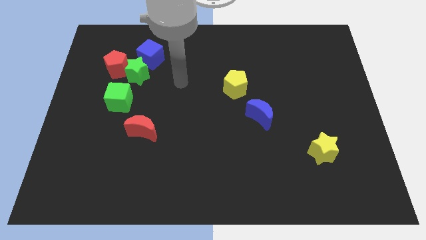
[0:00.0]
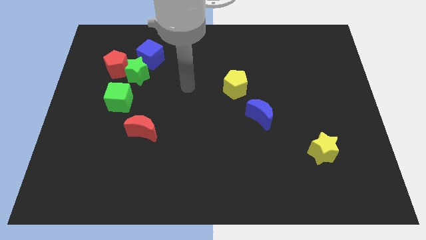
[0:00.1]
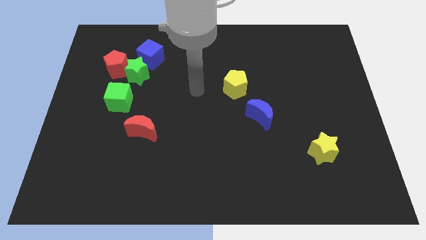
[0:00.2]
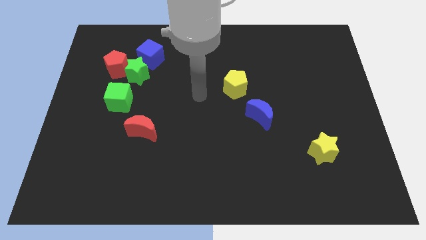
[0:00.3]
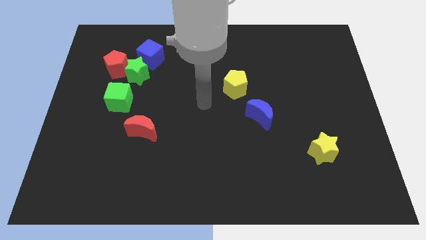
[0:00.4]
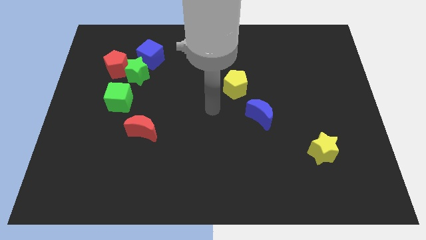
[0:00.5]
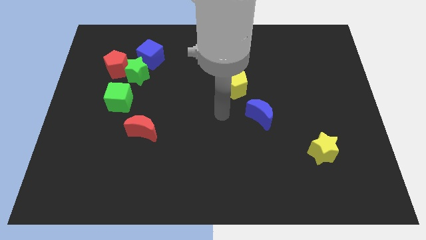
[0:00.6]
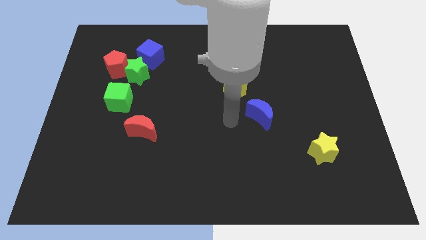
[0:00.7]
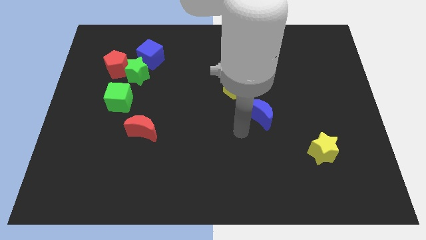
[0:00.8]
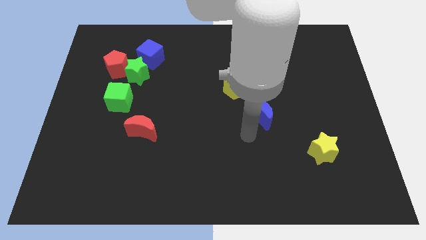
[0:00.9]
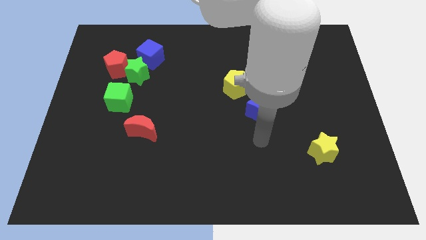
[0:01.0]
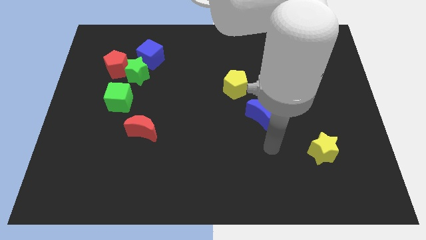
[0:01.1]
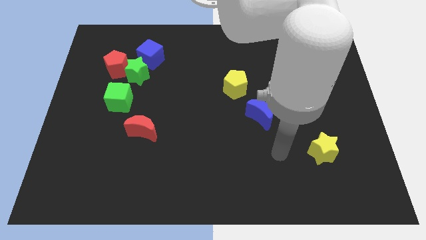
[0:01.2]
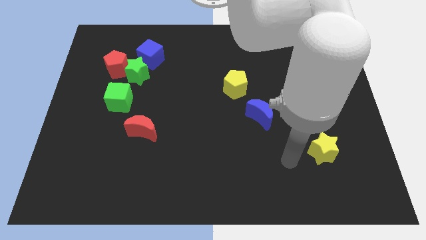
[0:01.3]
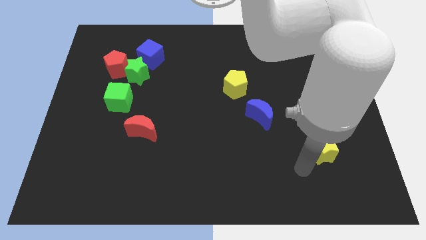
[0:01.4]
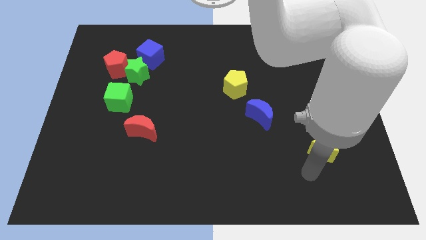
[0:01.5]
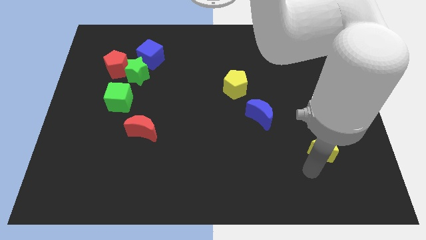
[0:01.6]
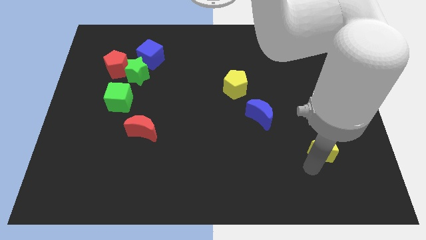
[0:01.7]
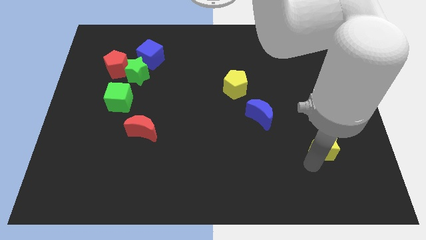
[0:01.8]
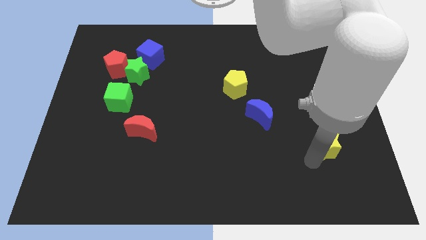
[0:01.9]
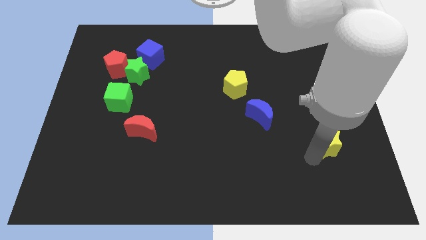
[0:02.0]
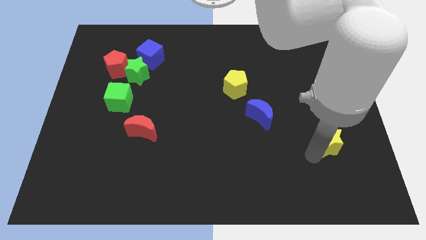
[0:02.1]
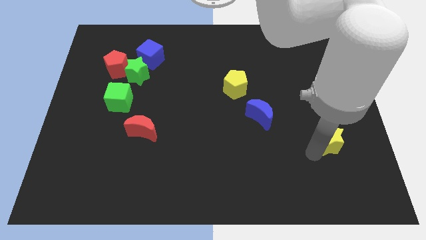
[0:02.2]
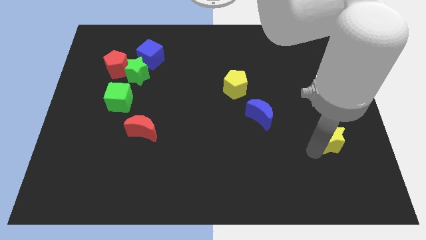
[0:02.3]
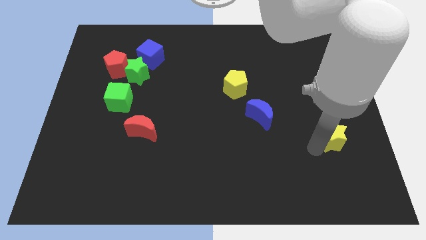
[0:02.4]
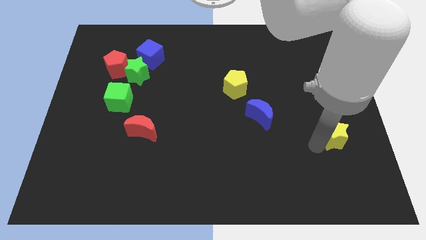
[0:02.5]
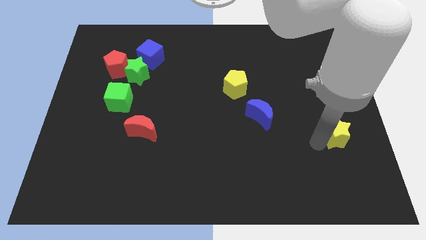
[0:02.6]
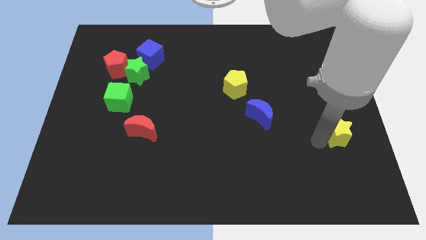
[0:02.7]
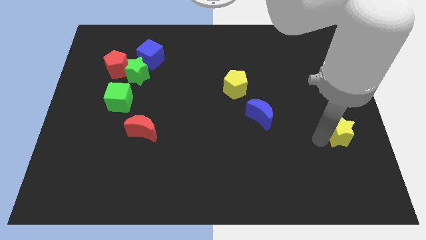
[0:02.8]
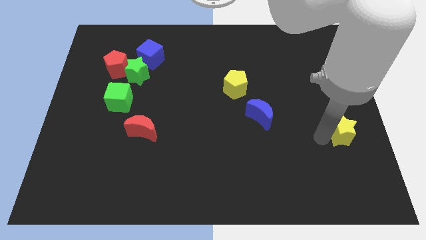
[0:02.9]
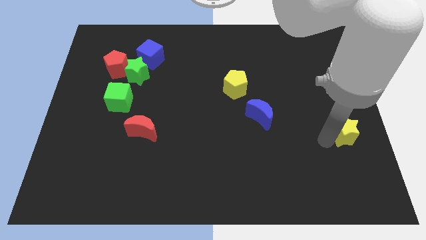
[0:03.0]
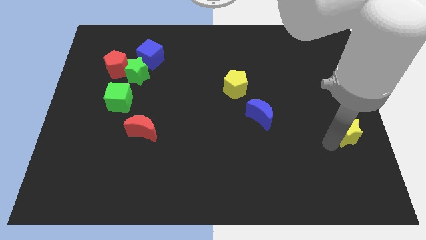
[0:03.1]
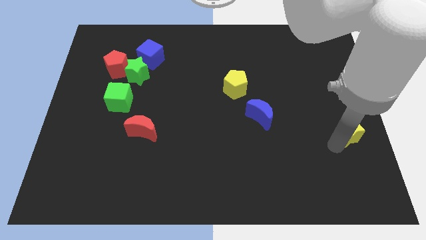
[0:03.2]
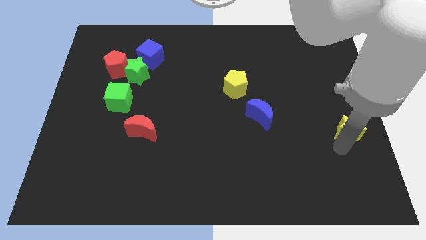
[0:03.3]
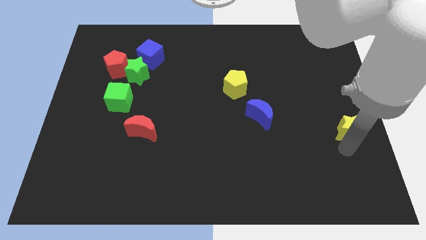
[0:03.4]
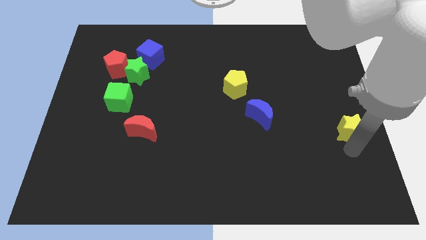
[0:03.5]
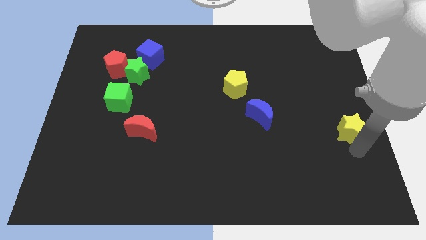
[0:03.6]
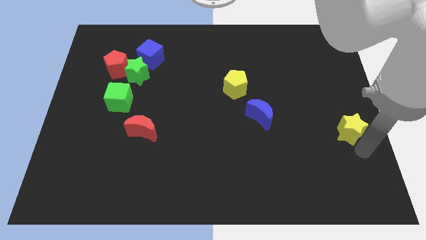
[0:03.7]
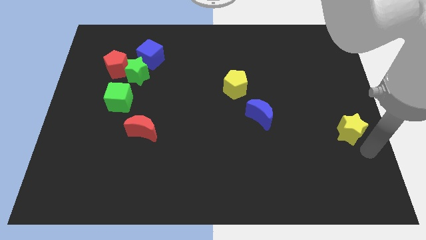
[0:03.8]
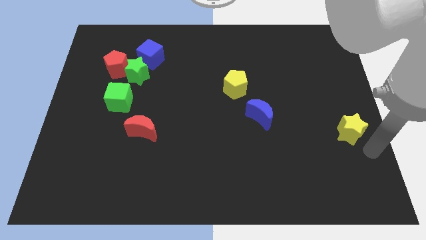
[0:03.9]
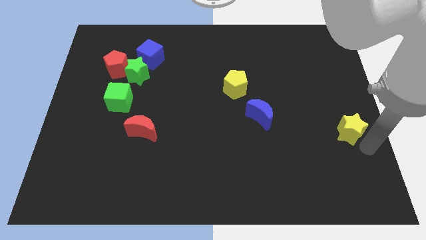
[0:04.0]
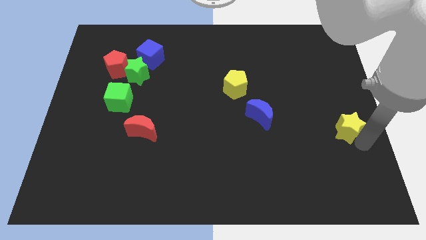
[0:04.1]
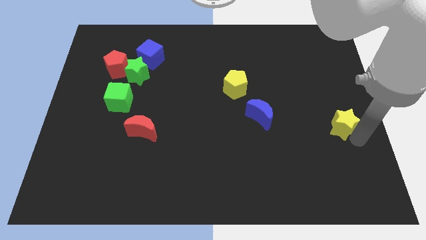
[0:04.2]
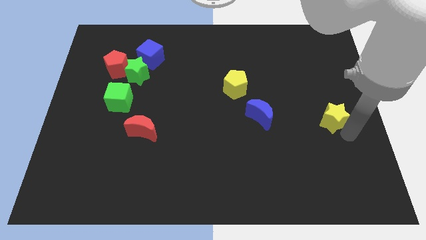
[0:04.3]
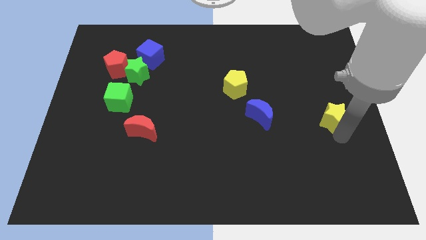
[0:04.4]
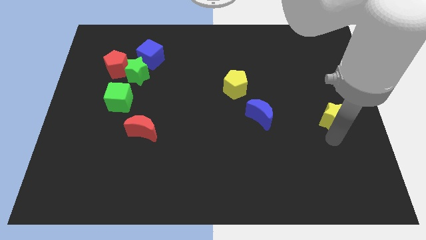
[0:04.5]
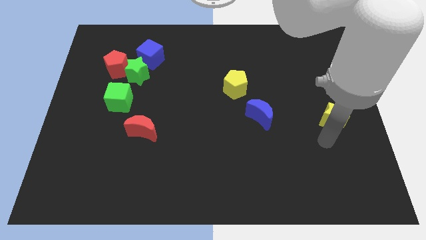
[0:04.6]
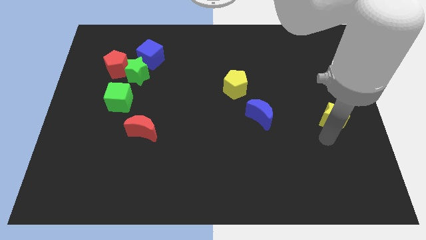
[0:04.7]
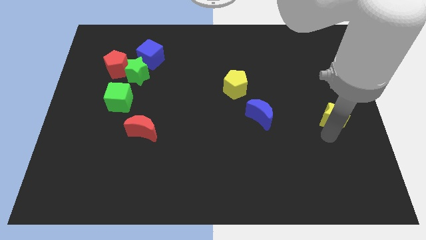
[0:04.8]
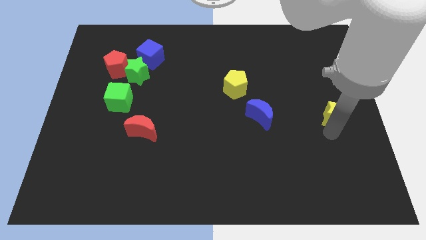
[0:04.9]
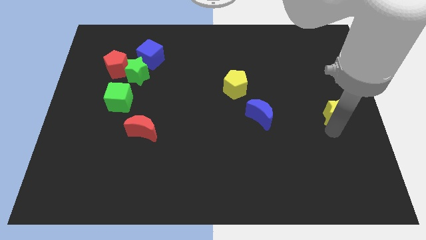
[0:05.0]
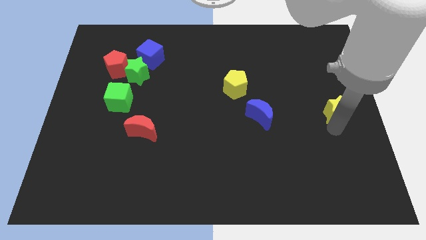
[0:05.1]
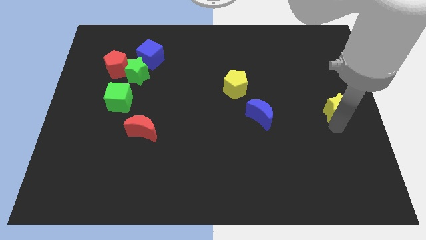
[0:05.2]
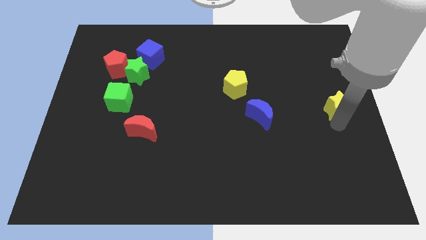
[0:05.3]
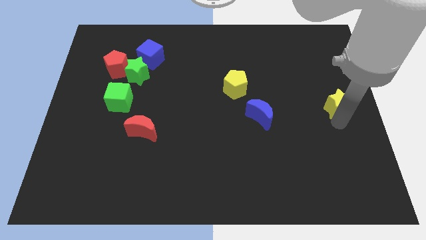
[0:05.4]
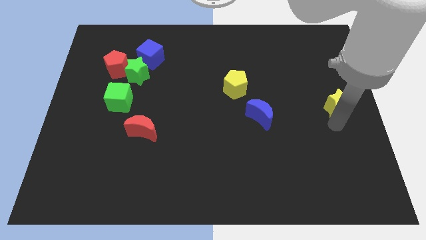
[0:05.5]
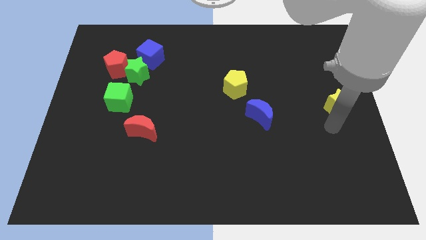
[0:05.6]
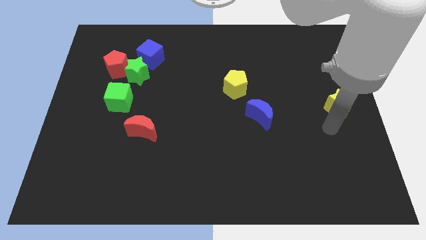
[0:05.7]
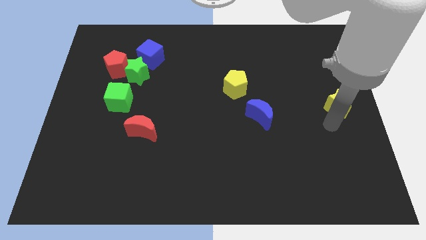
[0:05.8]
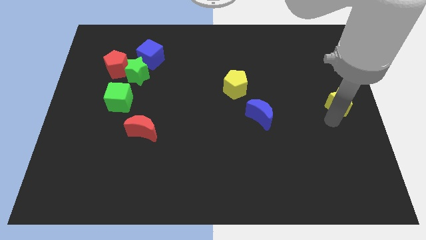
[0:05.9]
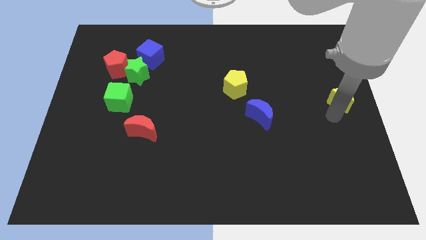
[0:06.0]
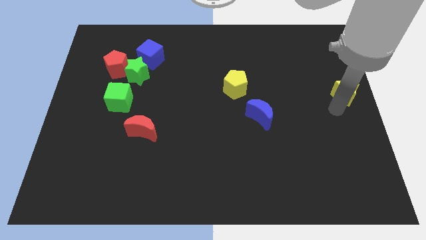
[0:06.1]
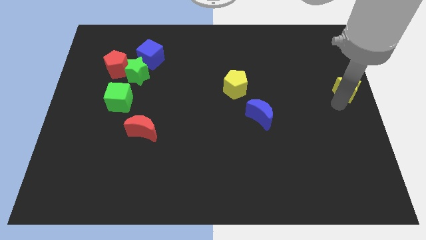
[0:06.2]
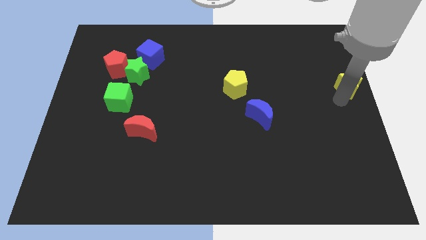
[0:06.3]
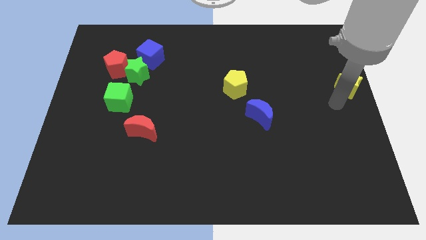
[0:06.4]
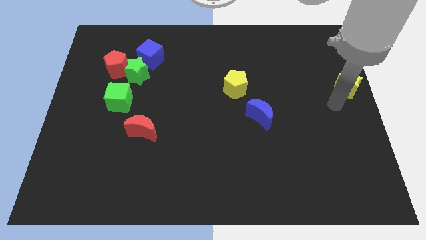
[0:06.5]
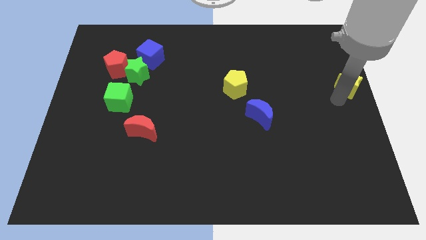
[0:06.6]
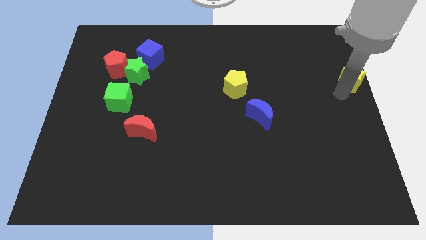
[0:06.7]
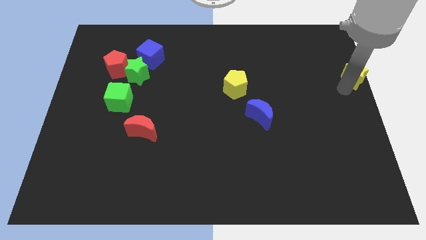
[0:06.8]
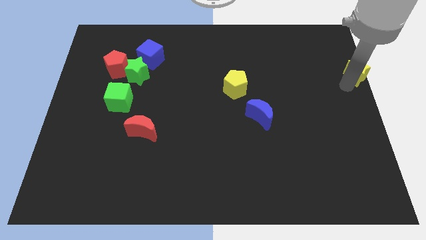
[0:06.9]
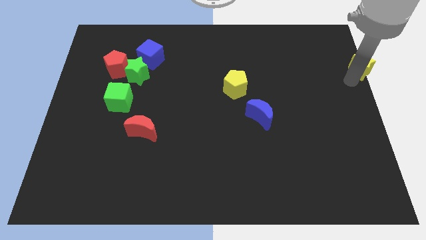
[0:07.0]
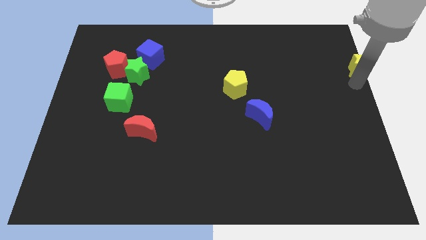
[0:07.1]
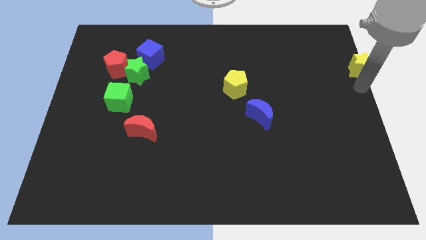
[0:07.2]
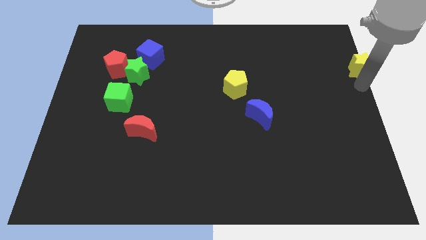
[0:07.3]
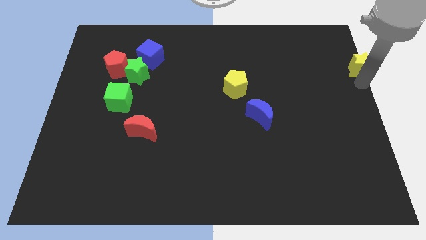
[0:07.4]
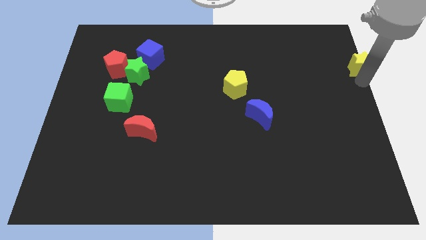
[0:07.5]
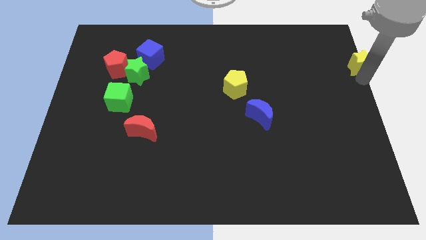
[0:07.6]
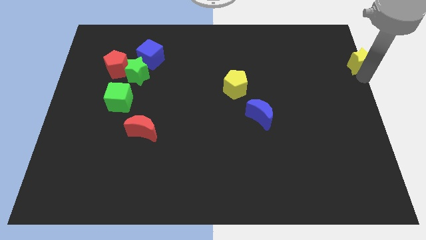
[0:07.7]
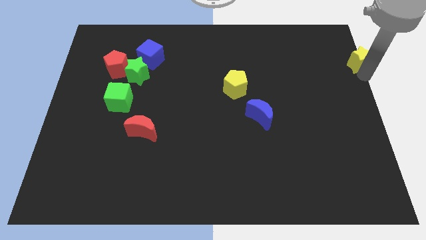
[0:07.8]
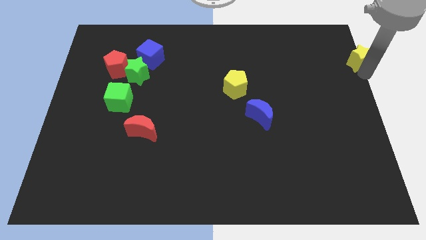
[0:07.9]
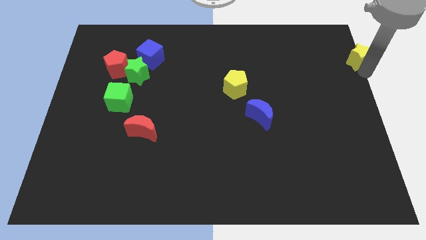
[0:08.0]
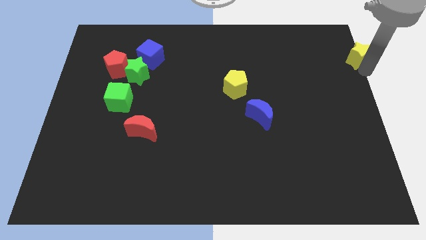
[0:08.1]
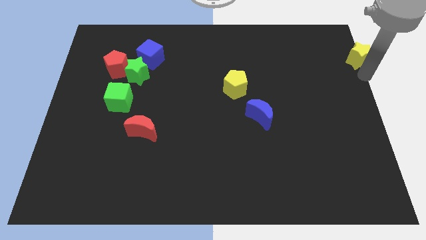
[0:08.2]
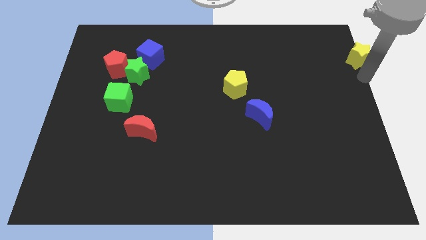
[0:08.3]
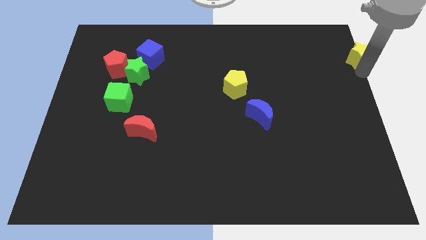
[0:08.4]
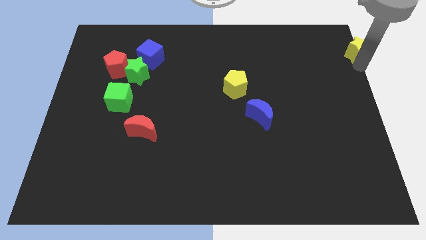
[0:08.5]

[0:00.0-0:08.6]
push the yellow star to the top right of the board
